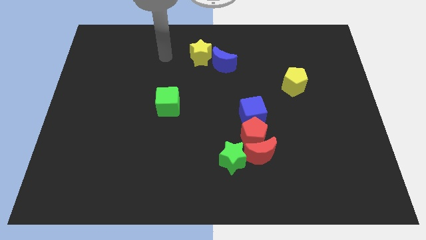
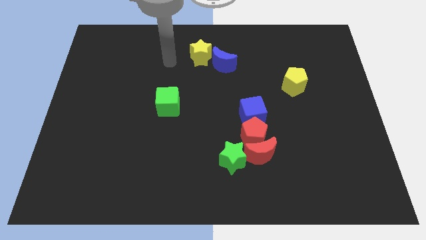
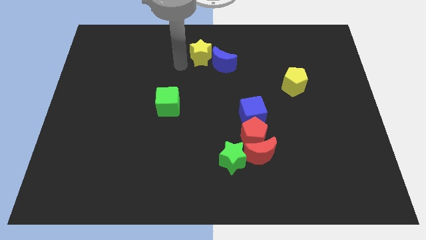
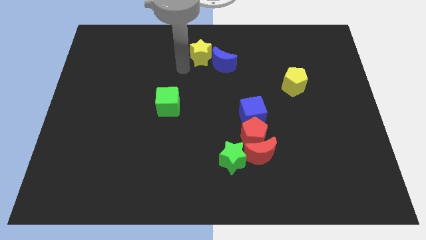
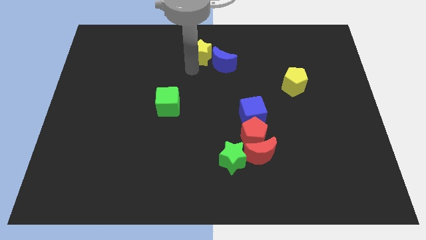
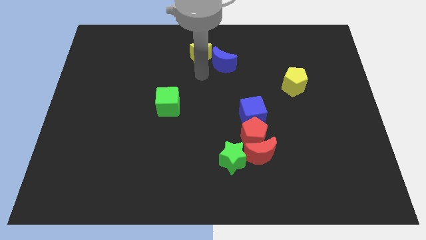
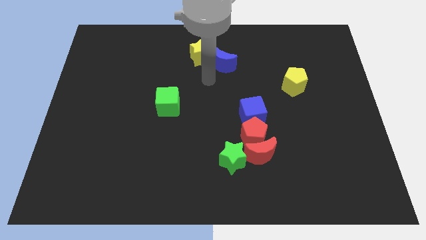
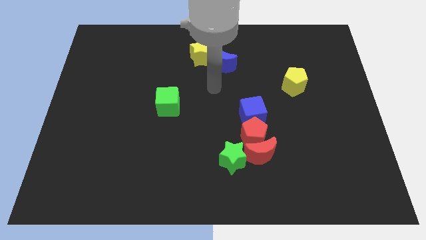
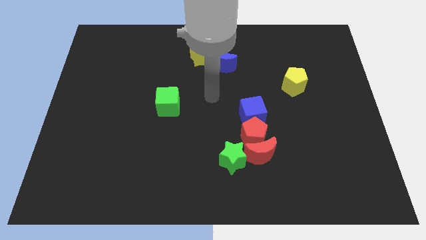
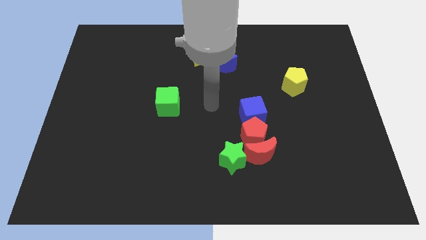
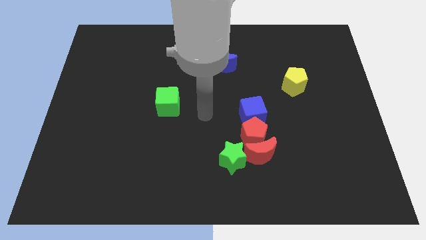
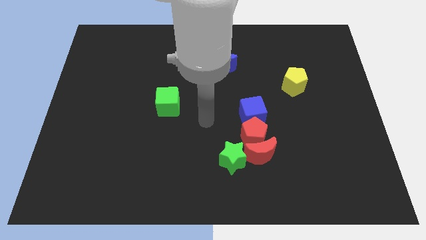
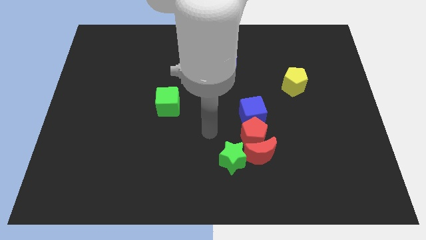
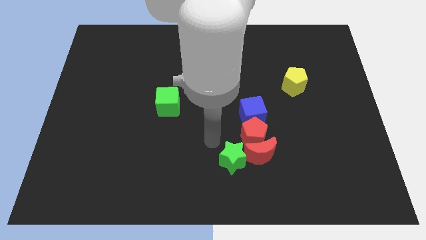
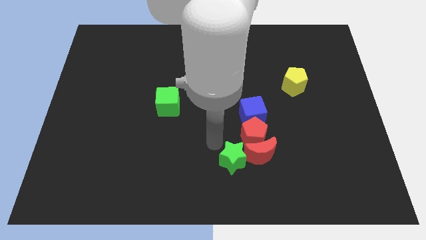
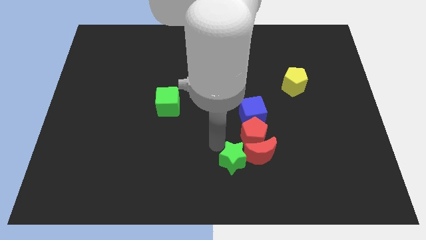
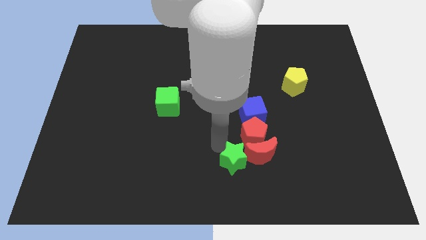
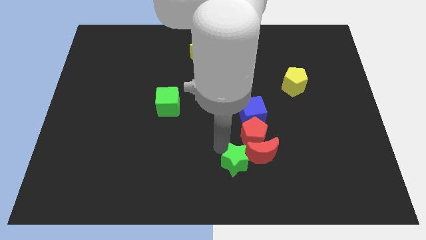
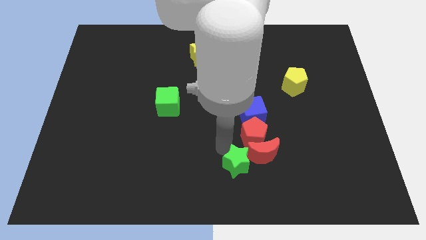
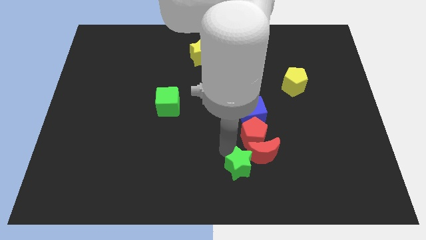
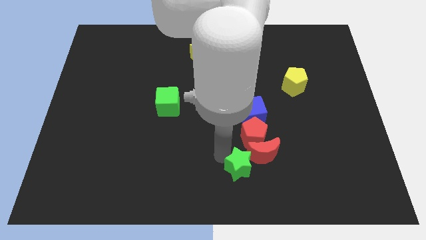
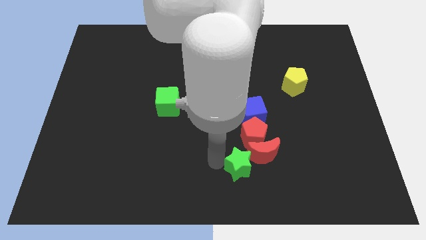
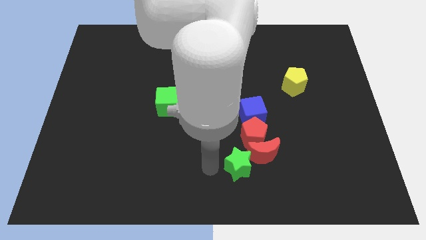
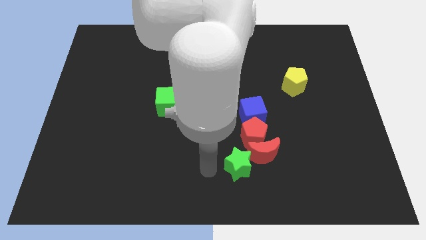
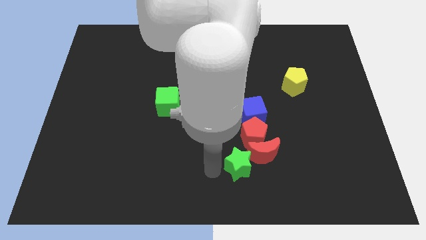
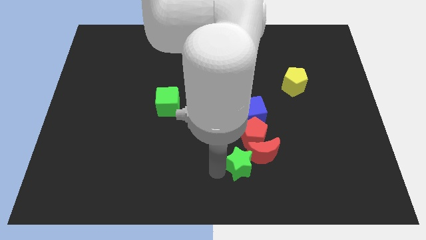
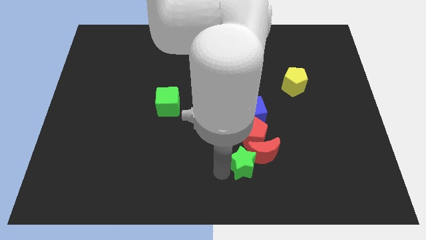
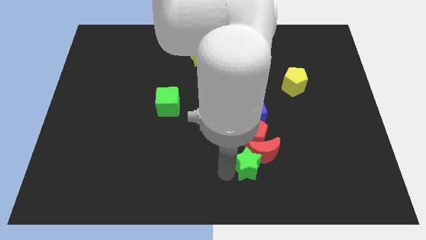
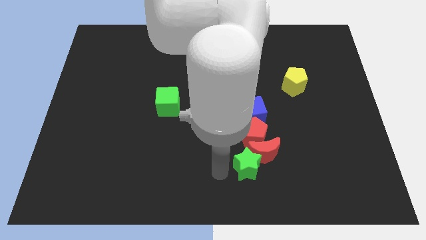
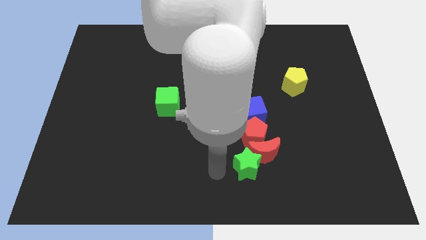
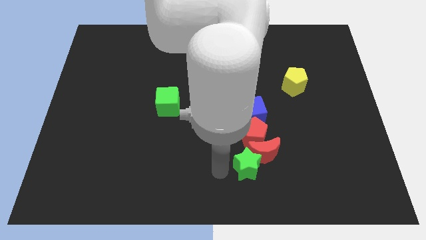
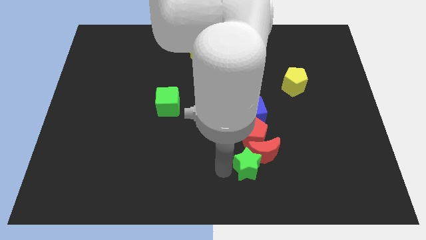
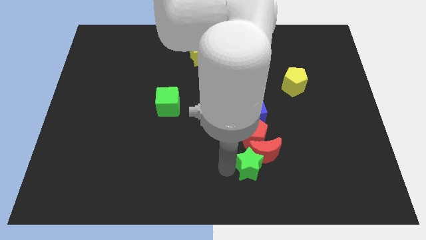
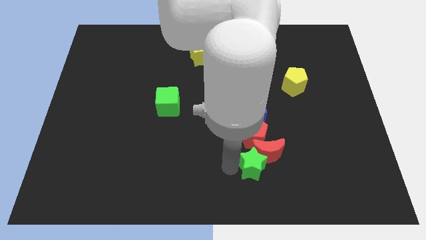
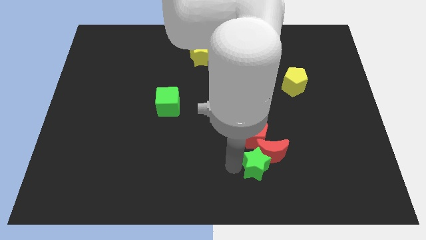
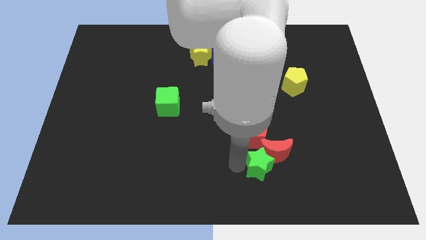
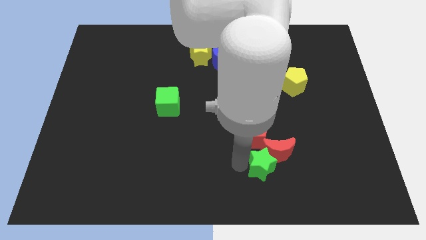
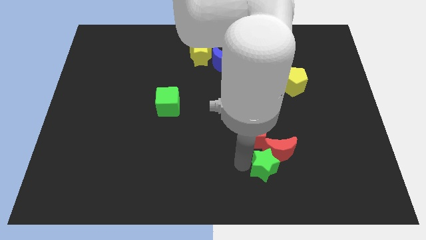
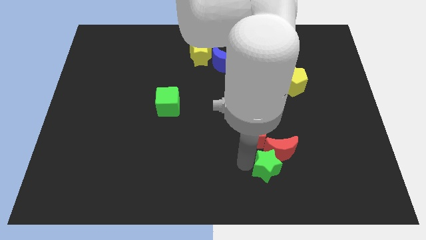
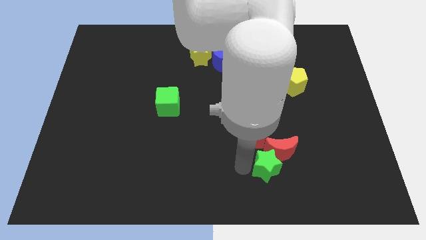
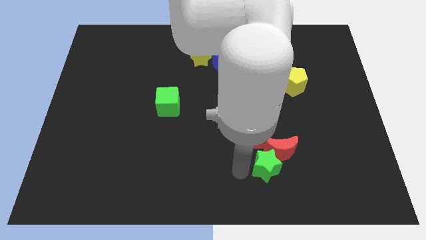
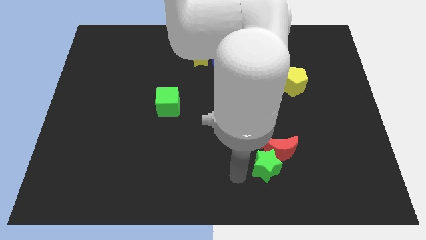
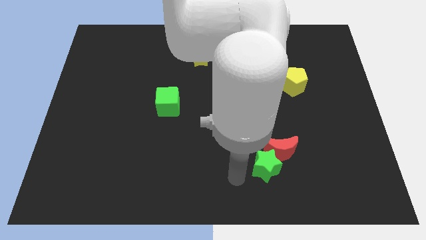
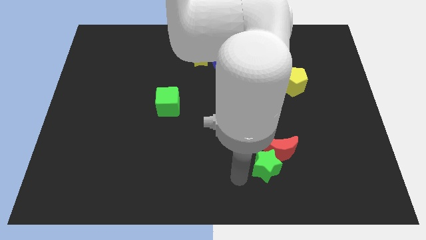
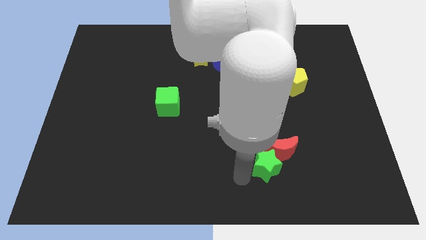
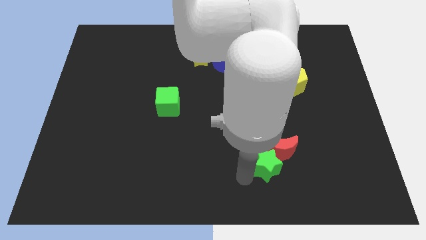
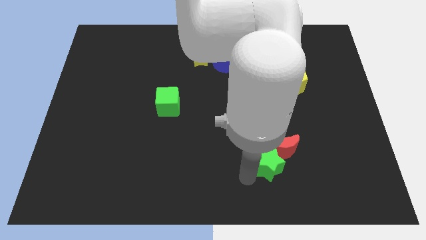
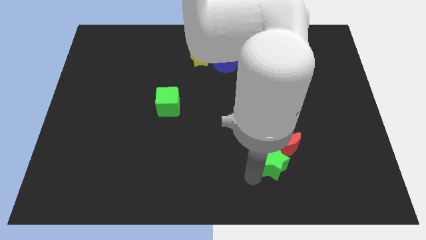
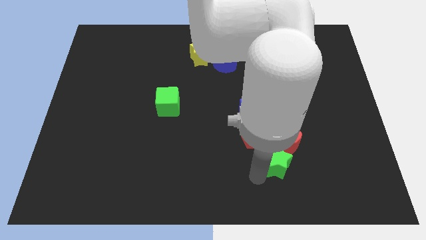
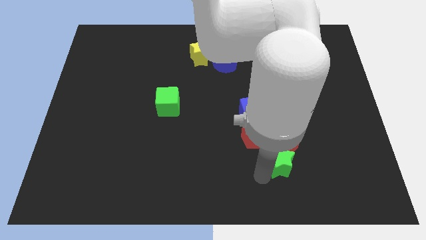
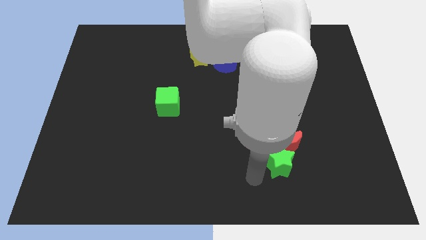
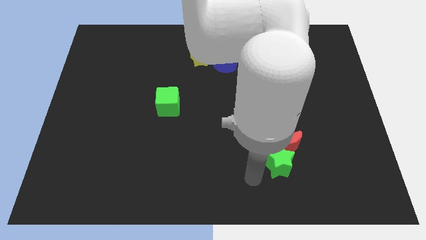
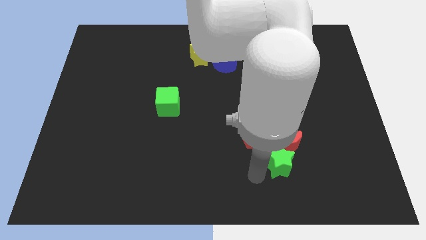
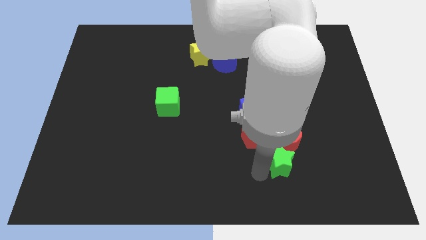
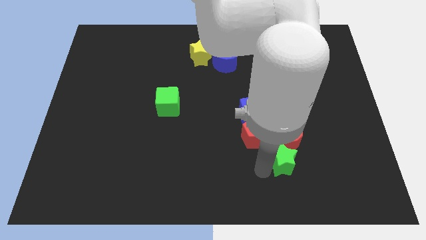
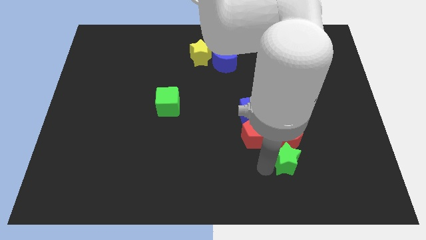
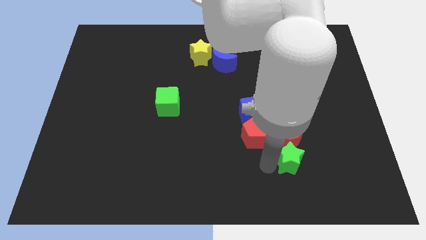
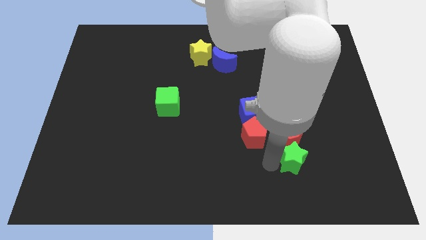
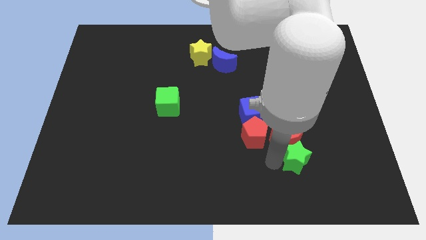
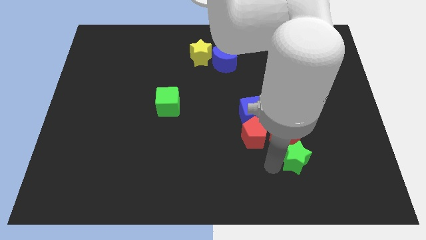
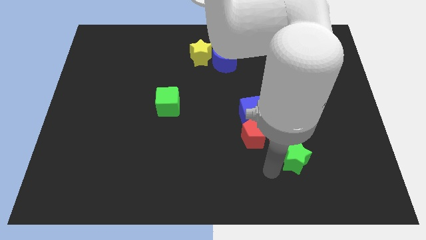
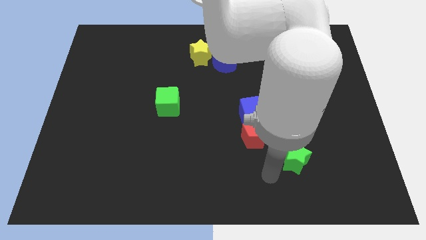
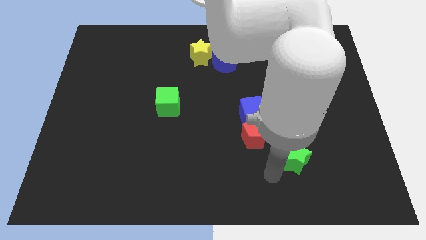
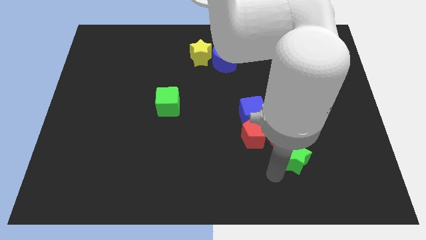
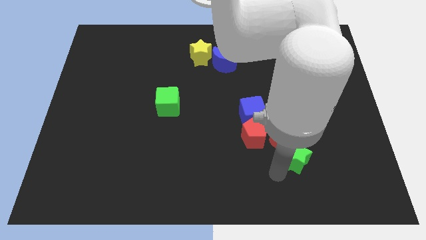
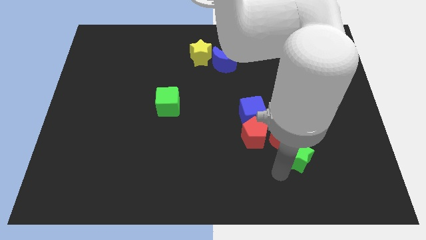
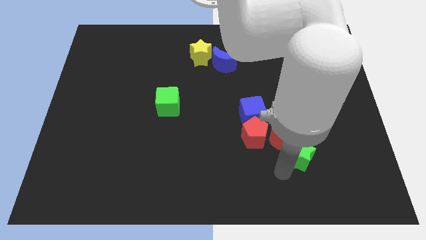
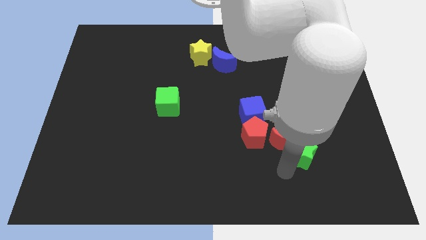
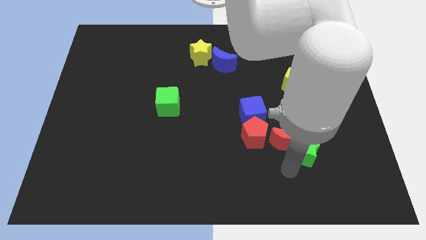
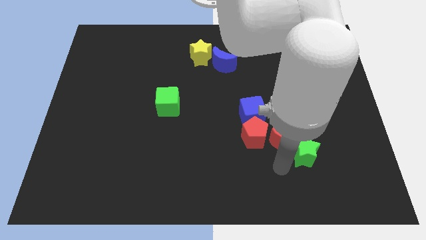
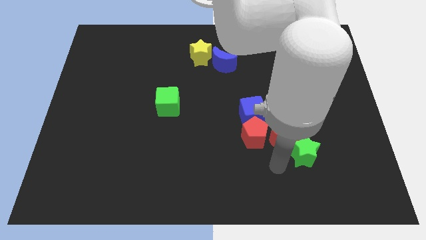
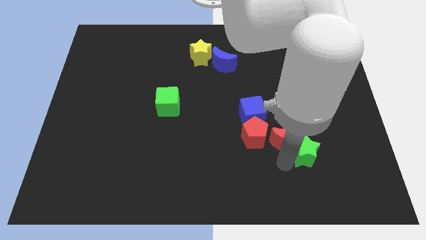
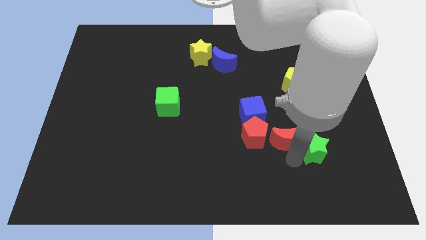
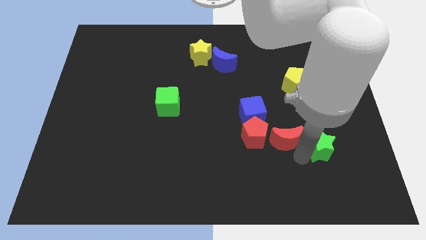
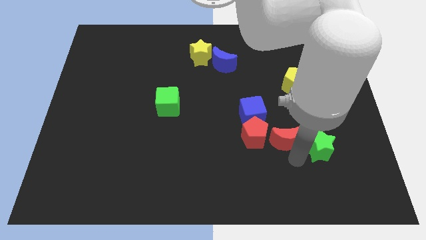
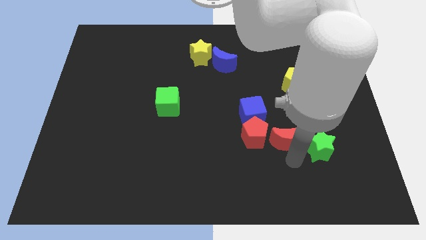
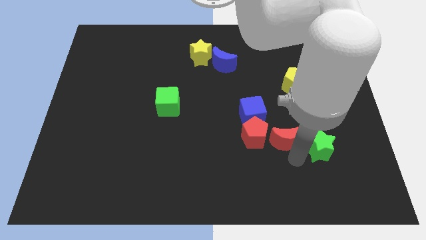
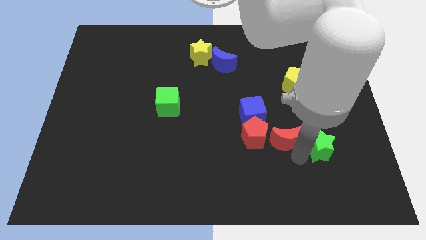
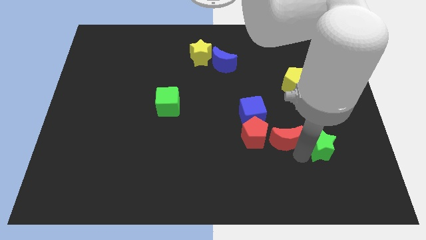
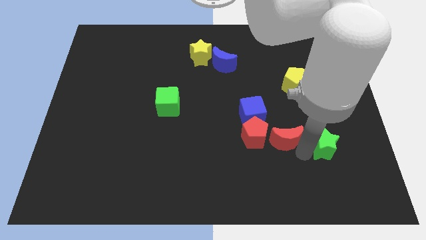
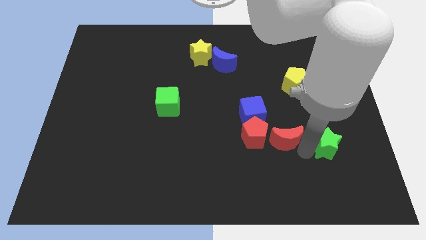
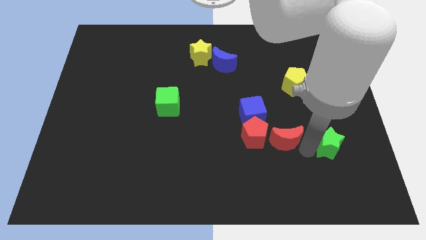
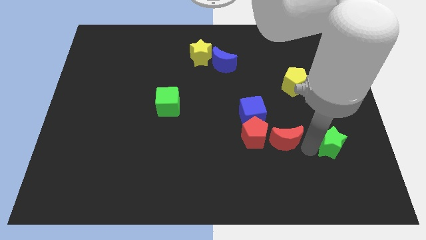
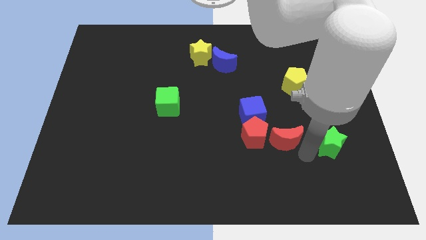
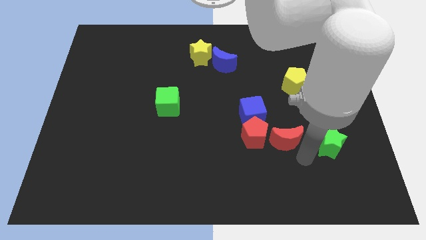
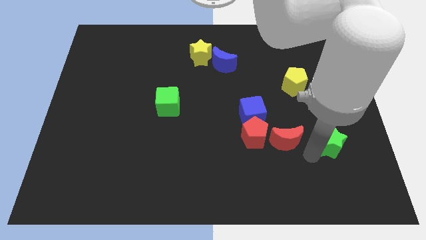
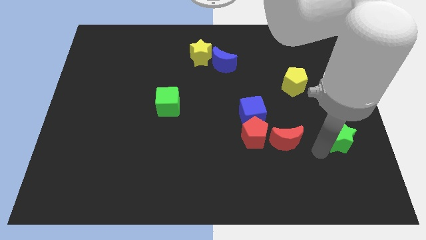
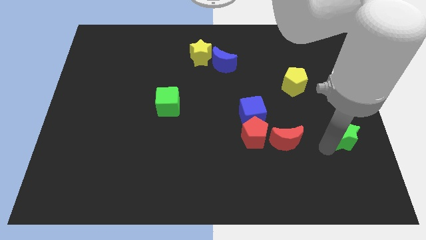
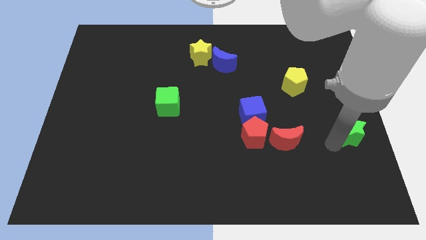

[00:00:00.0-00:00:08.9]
put the green star to the right side of the board
